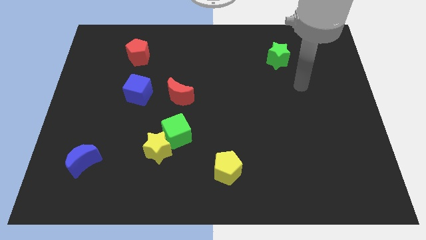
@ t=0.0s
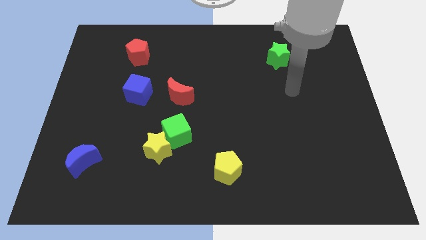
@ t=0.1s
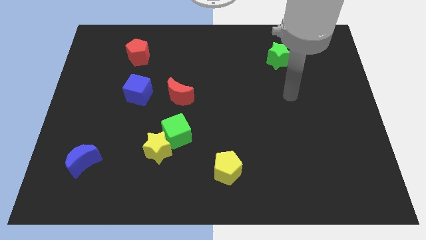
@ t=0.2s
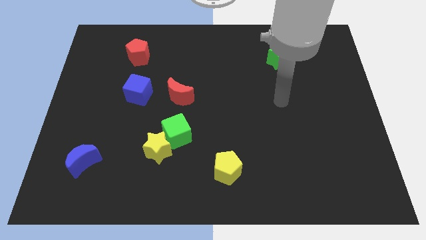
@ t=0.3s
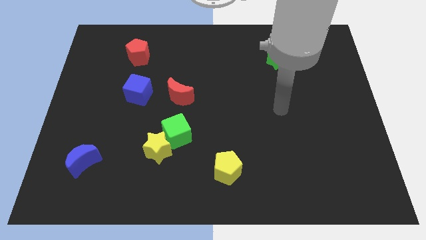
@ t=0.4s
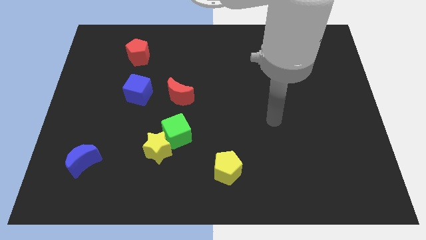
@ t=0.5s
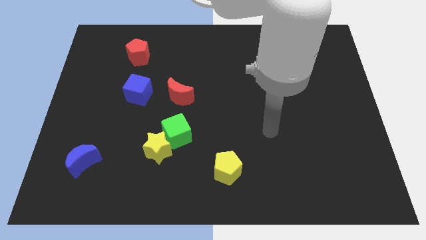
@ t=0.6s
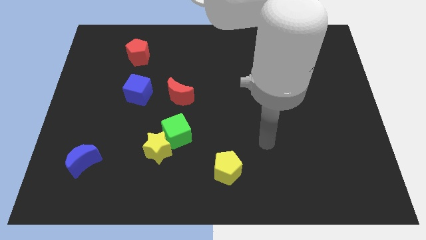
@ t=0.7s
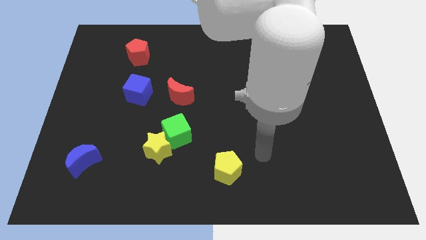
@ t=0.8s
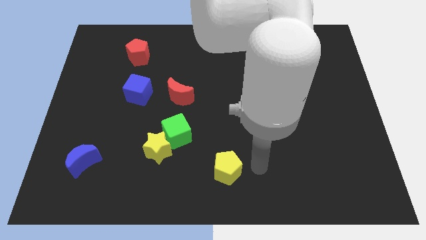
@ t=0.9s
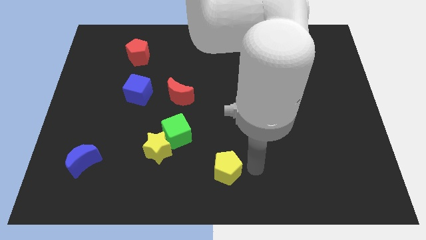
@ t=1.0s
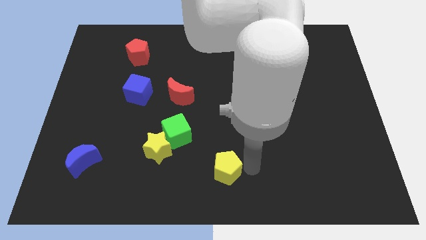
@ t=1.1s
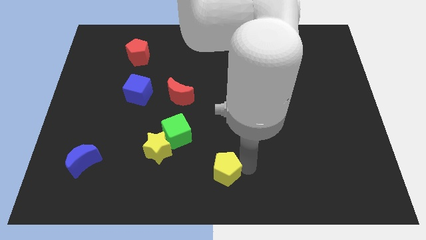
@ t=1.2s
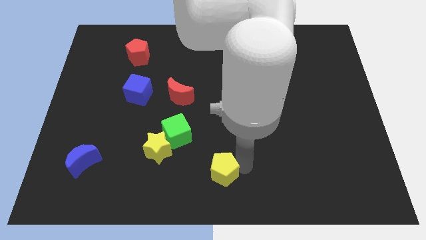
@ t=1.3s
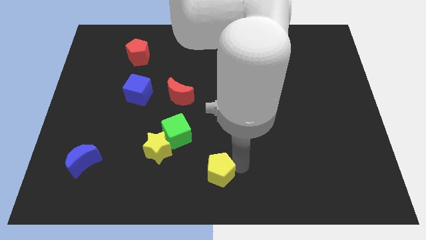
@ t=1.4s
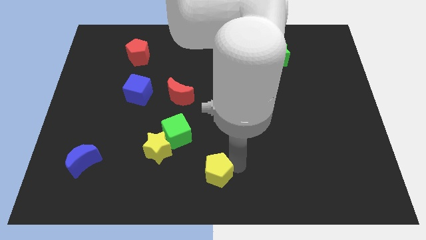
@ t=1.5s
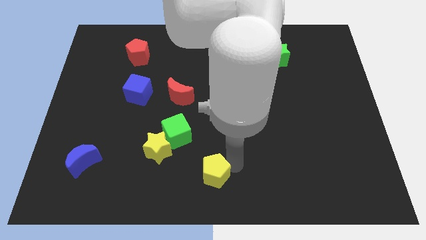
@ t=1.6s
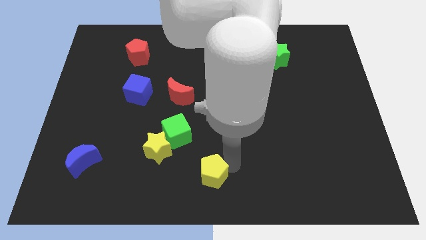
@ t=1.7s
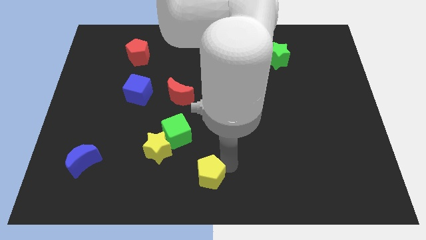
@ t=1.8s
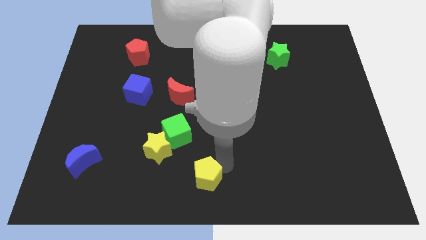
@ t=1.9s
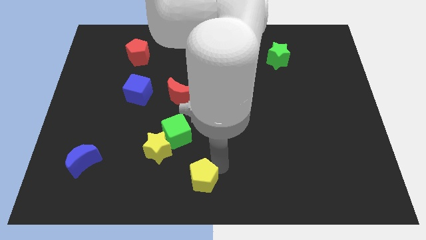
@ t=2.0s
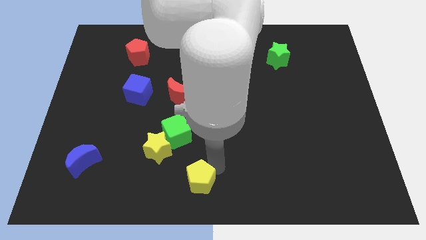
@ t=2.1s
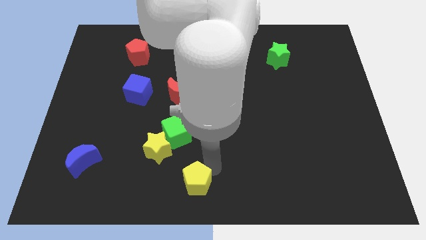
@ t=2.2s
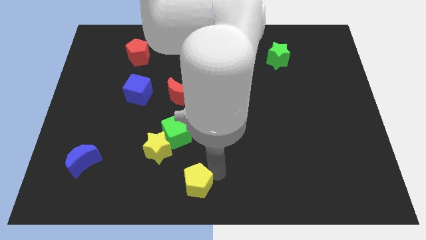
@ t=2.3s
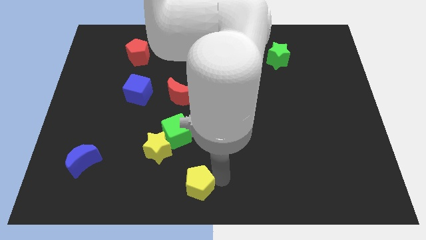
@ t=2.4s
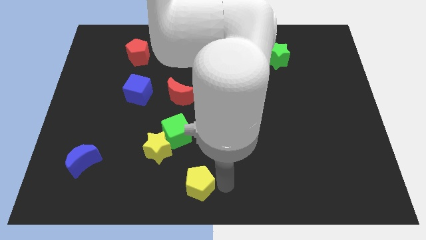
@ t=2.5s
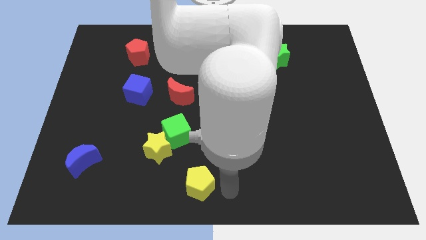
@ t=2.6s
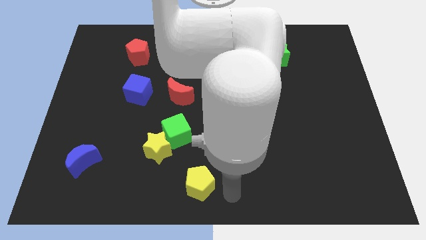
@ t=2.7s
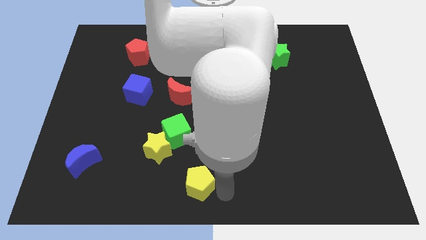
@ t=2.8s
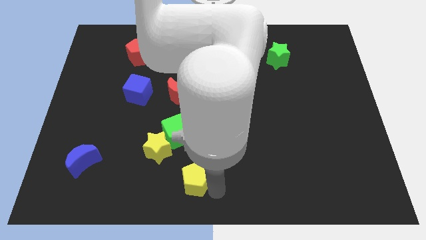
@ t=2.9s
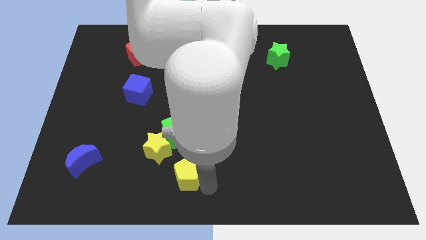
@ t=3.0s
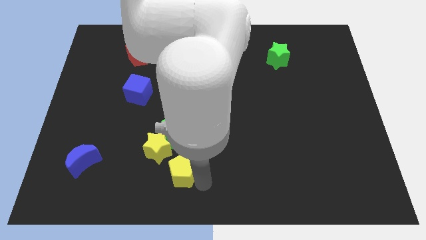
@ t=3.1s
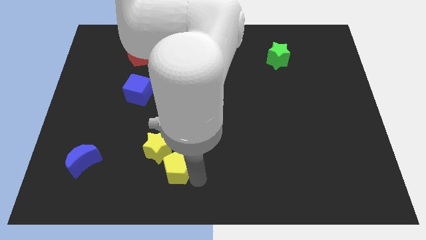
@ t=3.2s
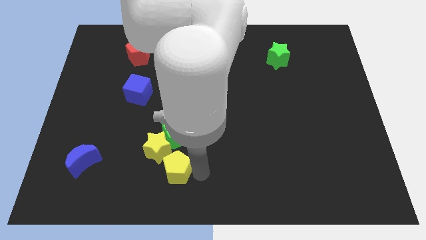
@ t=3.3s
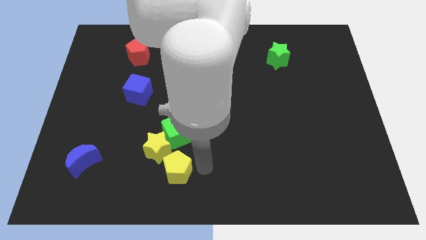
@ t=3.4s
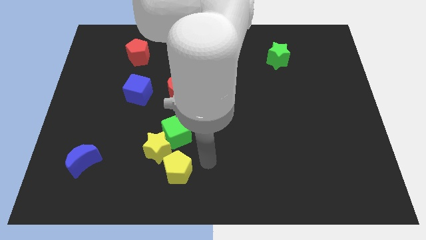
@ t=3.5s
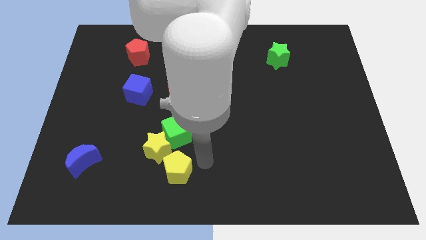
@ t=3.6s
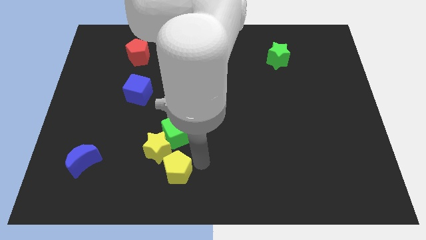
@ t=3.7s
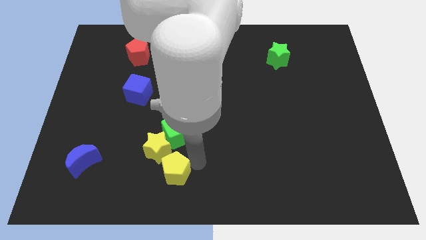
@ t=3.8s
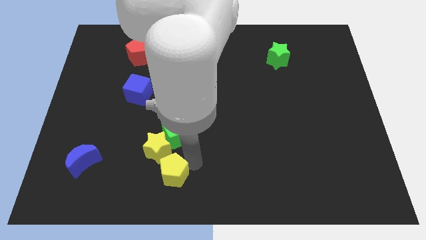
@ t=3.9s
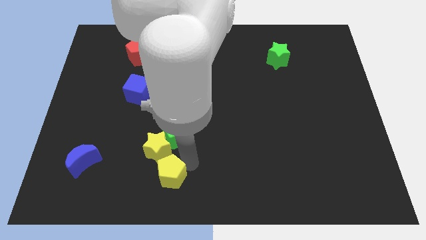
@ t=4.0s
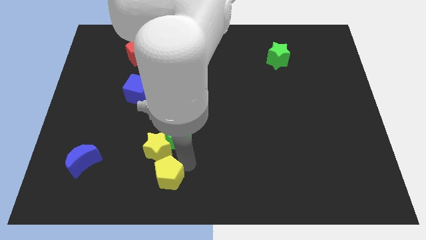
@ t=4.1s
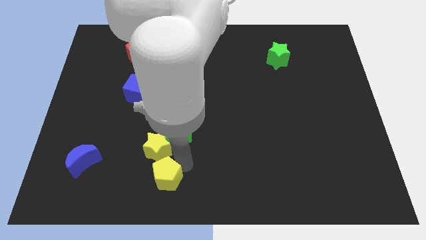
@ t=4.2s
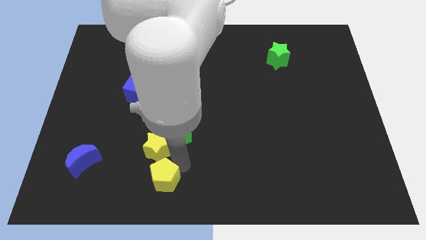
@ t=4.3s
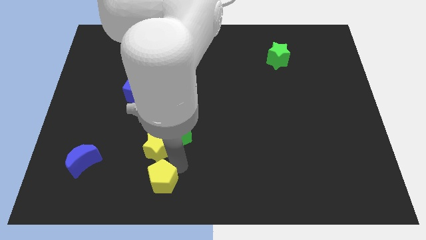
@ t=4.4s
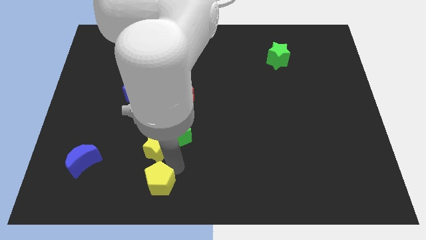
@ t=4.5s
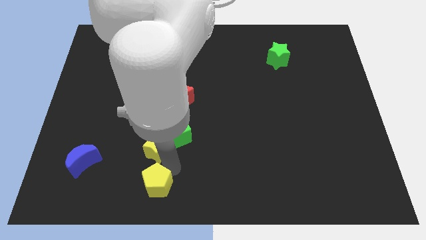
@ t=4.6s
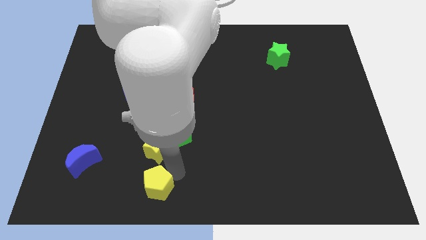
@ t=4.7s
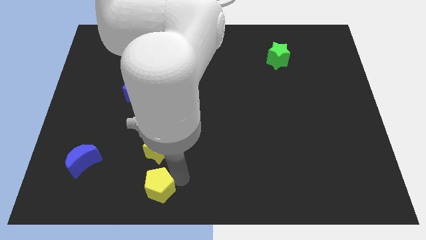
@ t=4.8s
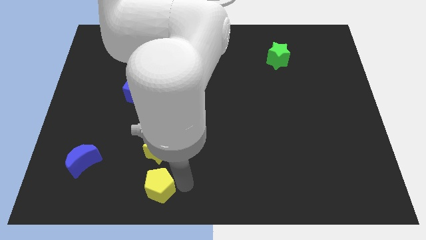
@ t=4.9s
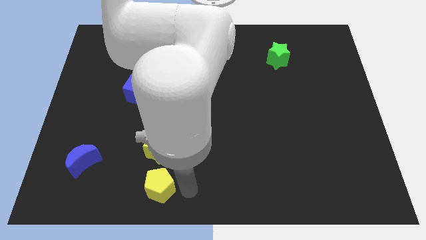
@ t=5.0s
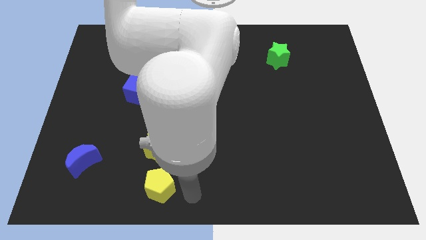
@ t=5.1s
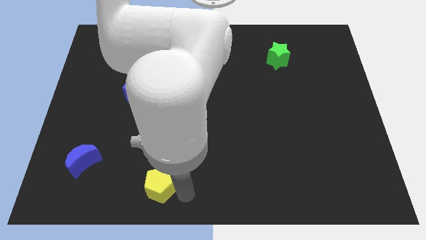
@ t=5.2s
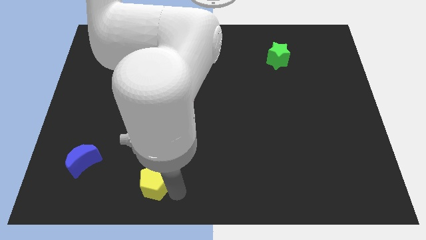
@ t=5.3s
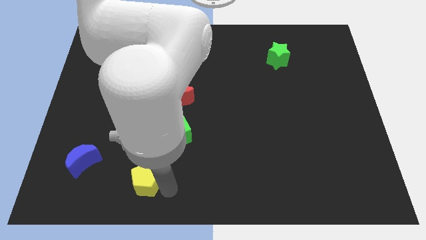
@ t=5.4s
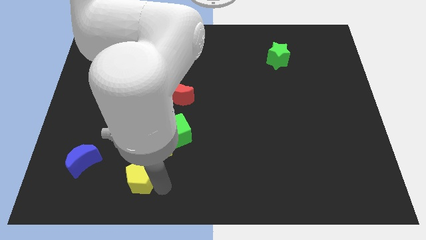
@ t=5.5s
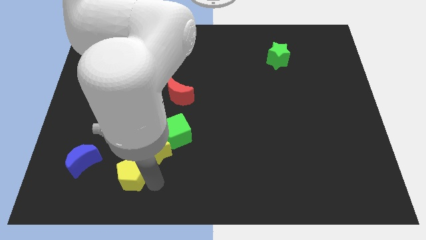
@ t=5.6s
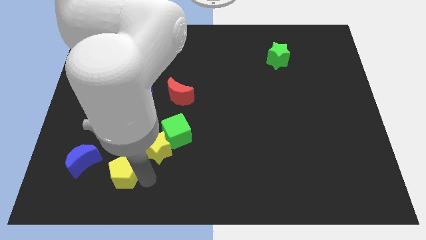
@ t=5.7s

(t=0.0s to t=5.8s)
move the yellow pentagon to the bottom right of the blue moon

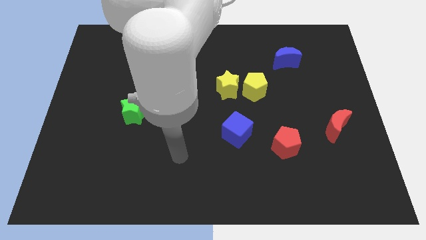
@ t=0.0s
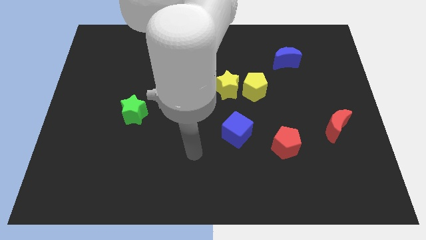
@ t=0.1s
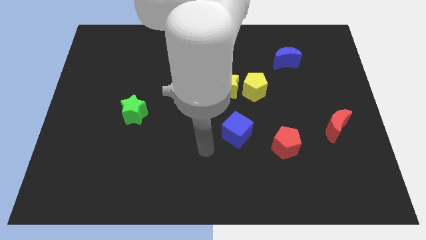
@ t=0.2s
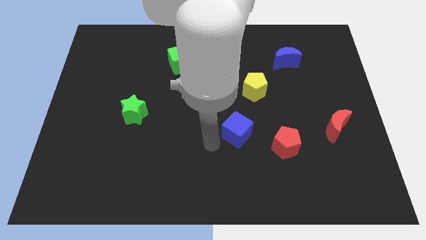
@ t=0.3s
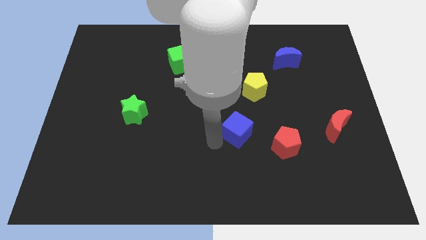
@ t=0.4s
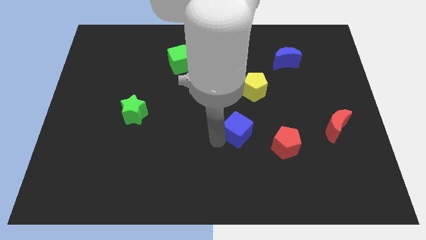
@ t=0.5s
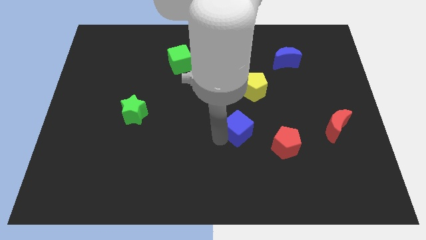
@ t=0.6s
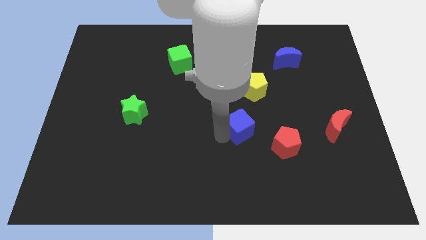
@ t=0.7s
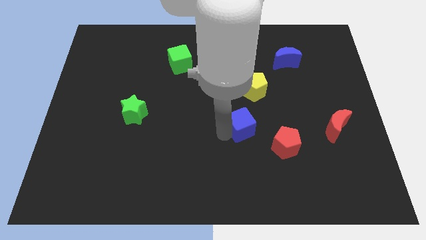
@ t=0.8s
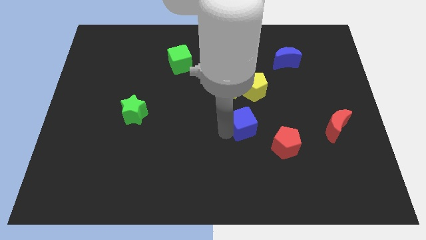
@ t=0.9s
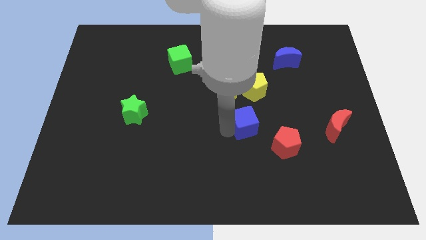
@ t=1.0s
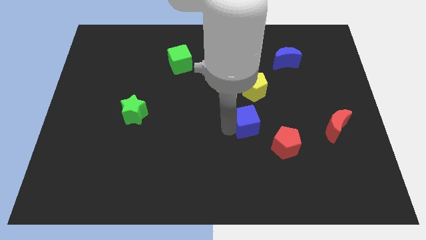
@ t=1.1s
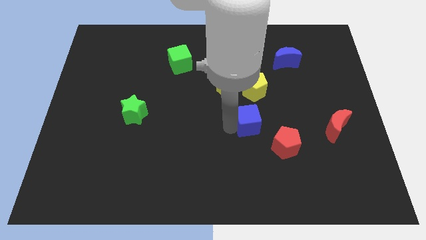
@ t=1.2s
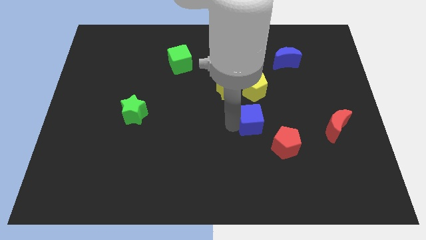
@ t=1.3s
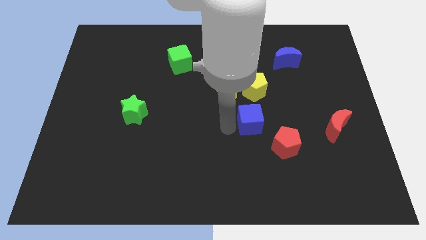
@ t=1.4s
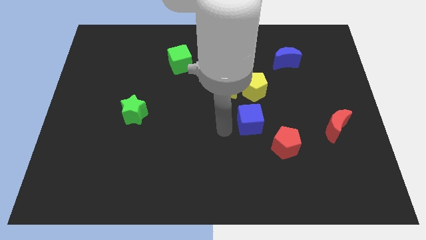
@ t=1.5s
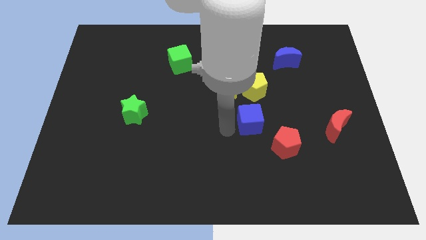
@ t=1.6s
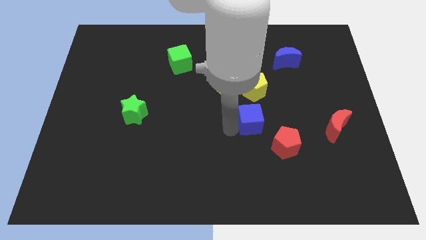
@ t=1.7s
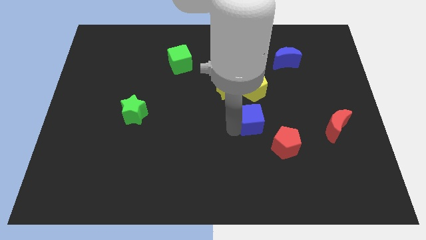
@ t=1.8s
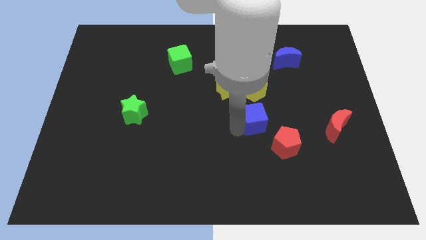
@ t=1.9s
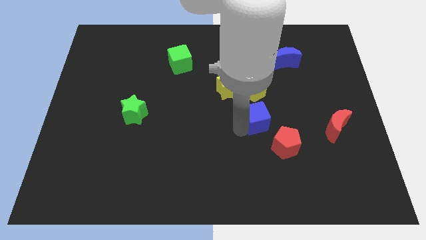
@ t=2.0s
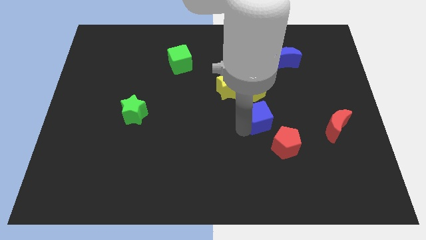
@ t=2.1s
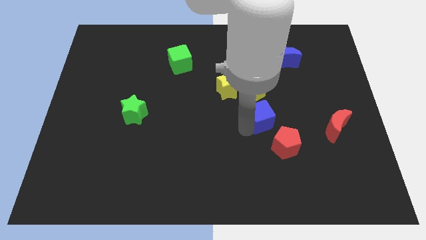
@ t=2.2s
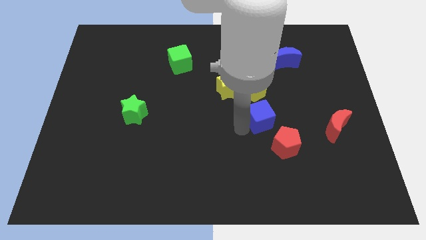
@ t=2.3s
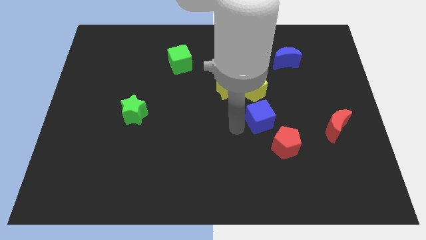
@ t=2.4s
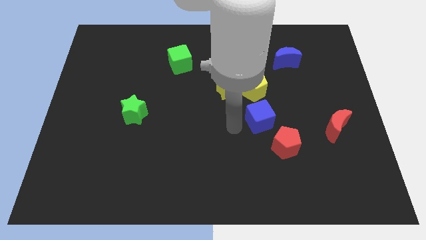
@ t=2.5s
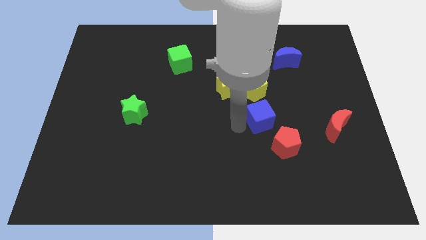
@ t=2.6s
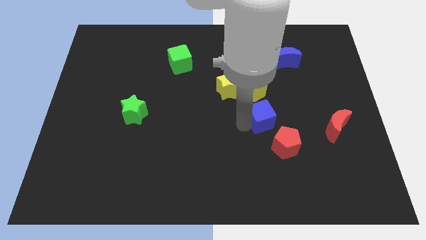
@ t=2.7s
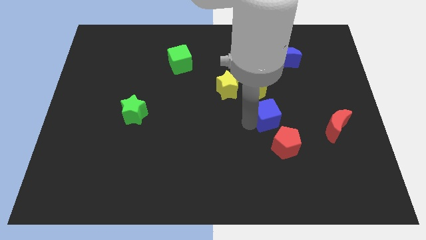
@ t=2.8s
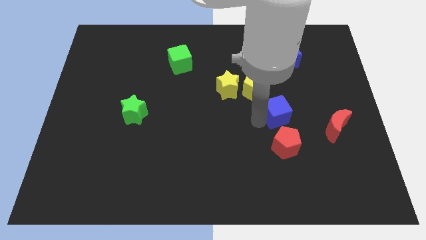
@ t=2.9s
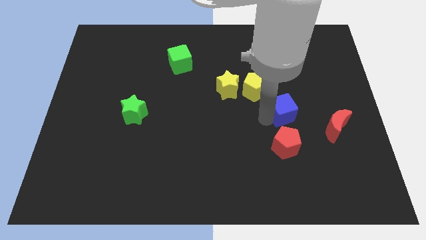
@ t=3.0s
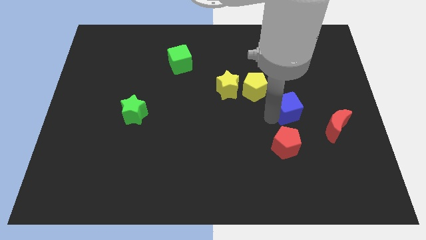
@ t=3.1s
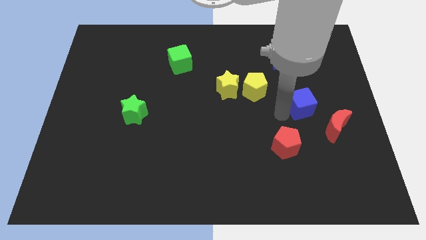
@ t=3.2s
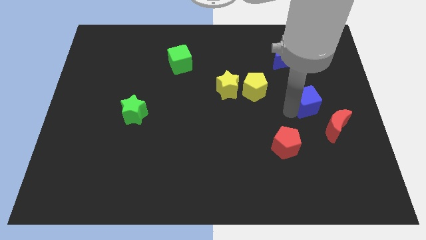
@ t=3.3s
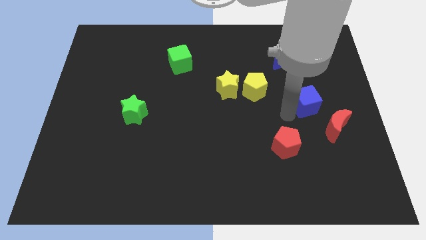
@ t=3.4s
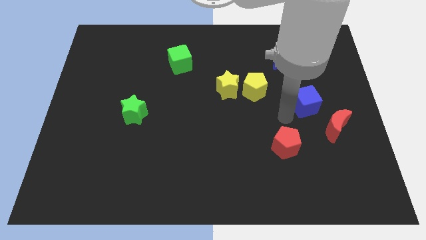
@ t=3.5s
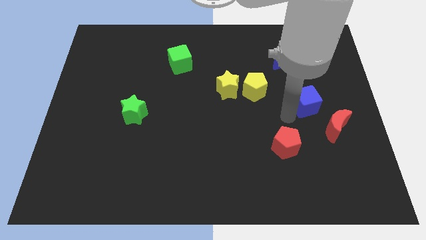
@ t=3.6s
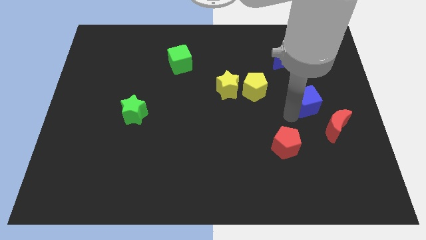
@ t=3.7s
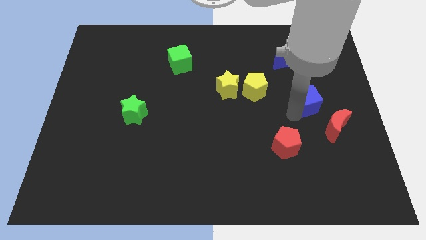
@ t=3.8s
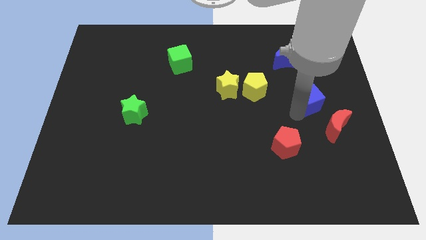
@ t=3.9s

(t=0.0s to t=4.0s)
push the blue cube to the top of the red moon
